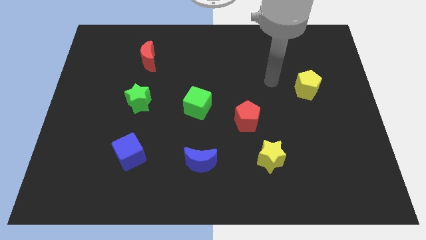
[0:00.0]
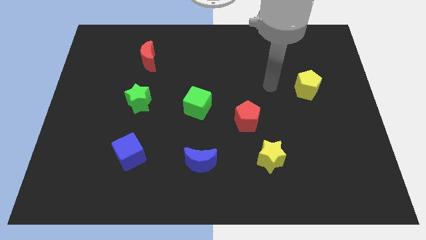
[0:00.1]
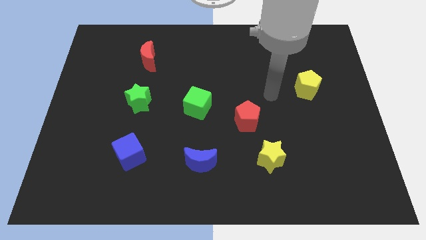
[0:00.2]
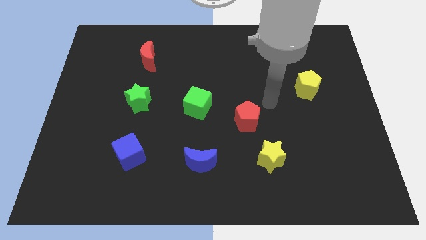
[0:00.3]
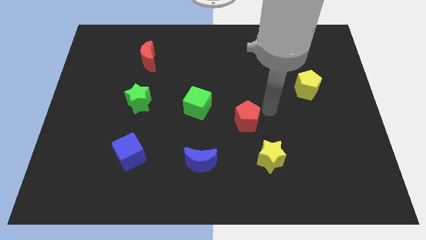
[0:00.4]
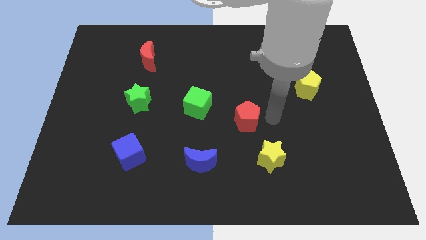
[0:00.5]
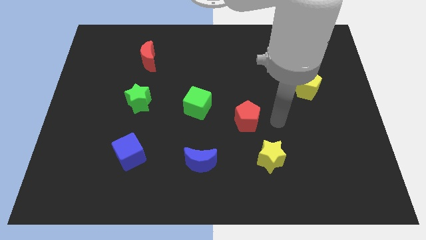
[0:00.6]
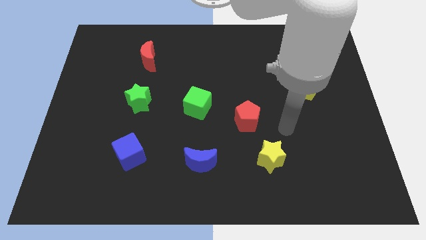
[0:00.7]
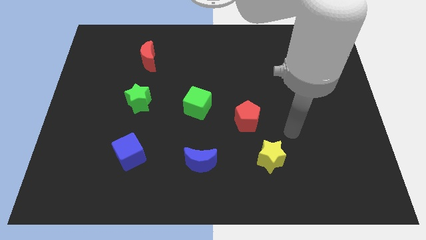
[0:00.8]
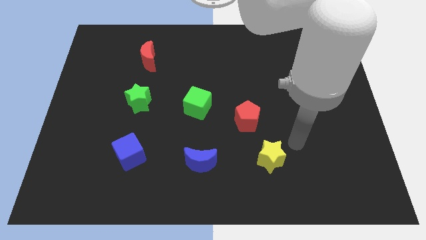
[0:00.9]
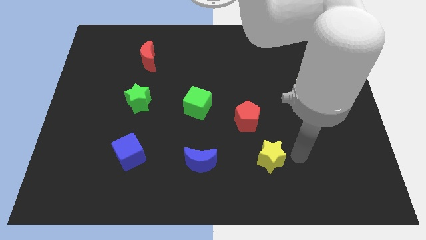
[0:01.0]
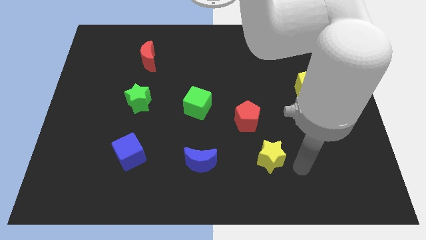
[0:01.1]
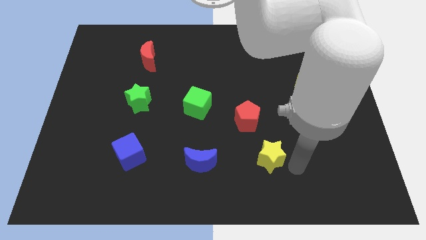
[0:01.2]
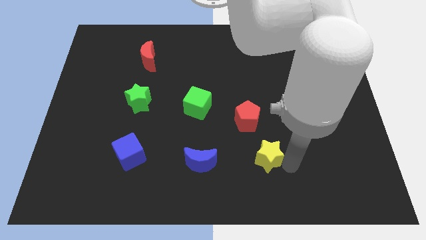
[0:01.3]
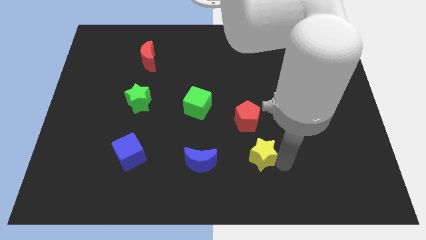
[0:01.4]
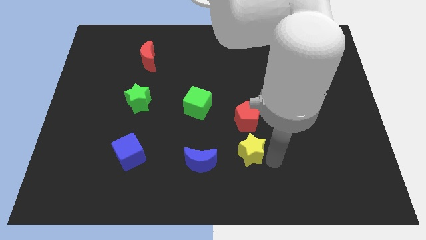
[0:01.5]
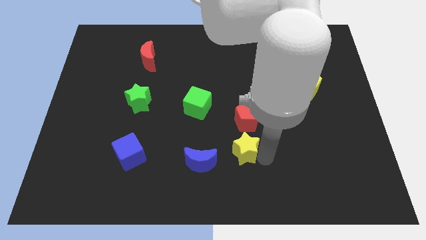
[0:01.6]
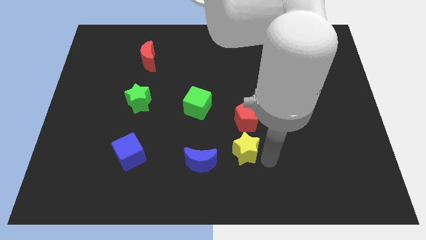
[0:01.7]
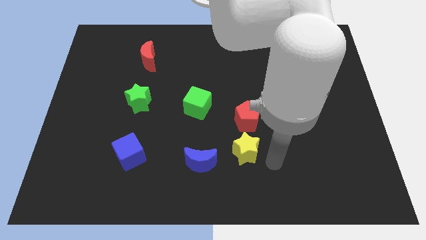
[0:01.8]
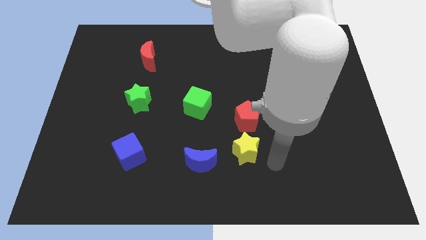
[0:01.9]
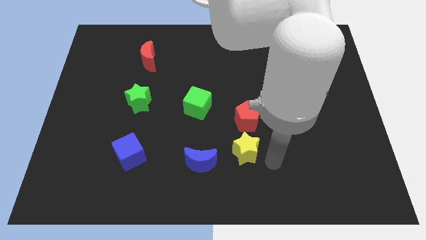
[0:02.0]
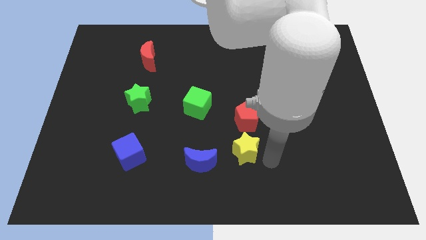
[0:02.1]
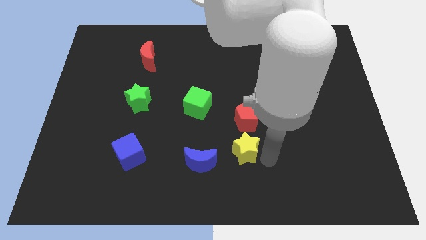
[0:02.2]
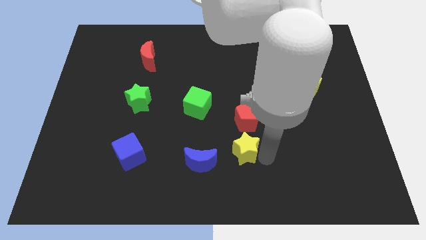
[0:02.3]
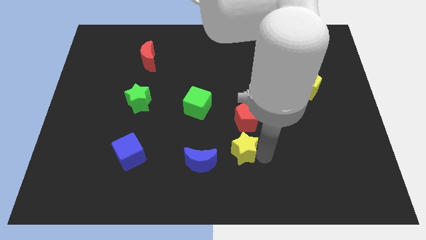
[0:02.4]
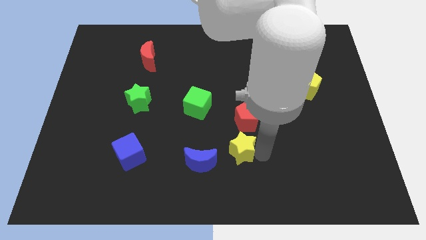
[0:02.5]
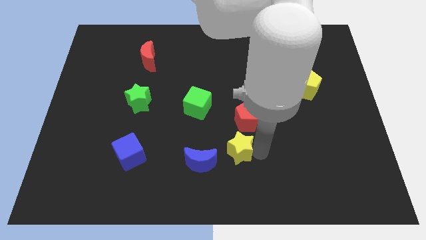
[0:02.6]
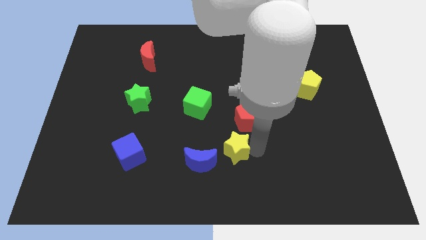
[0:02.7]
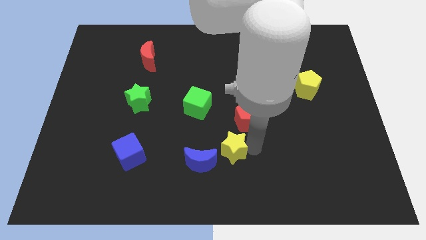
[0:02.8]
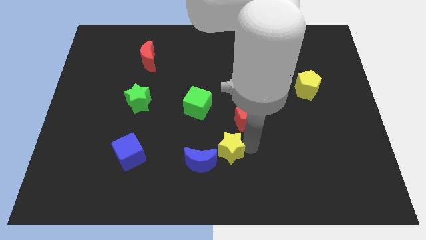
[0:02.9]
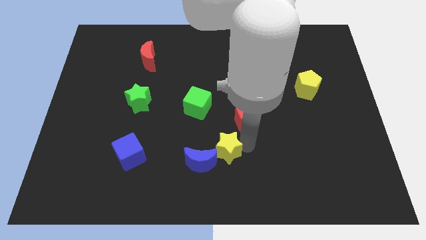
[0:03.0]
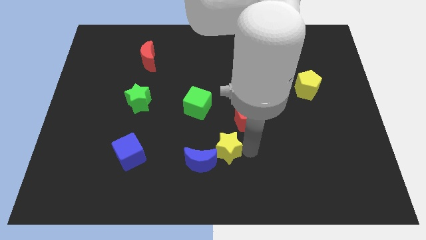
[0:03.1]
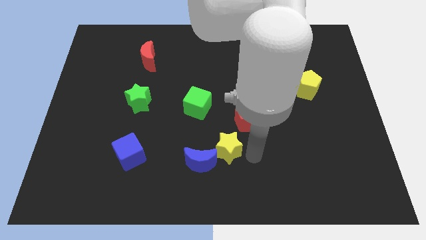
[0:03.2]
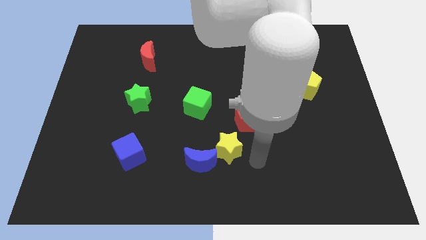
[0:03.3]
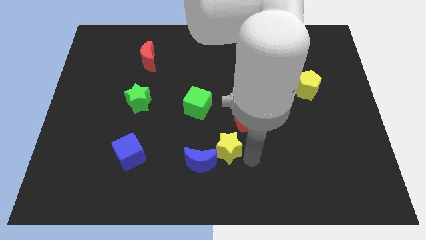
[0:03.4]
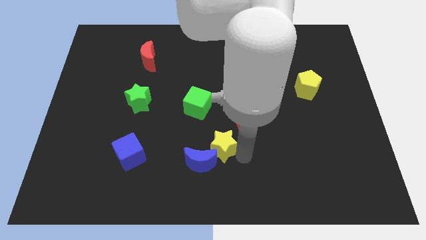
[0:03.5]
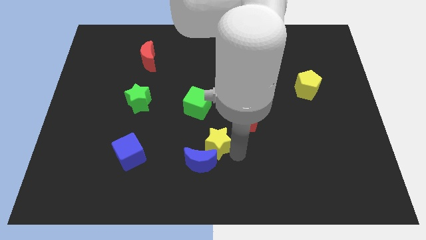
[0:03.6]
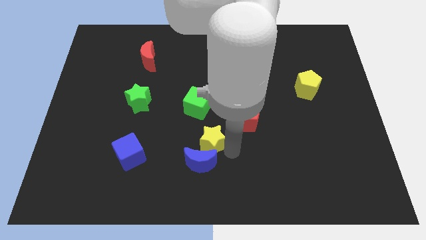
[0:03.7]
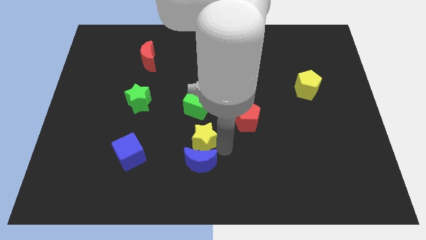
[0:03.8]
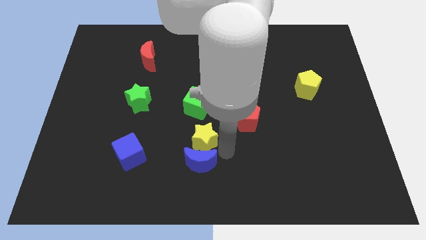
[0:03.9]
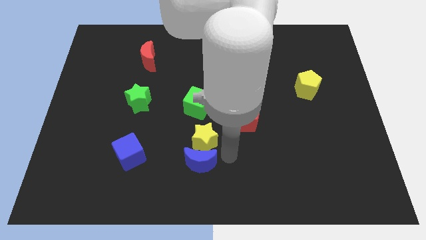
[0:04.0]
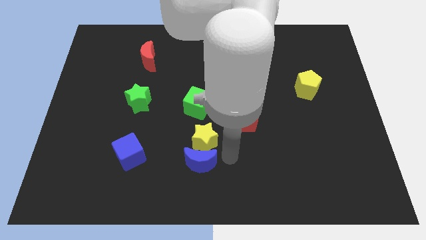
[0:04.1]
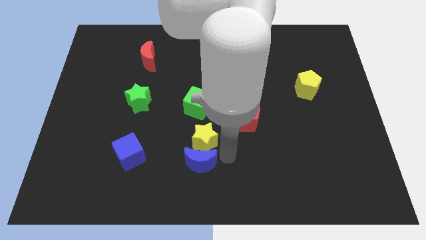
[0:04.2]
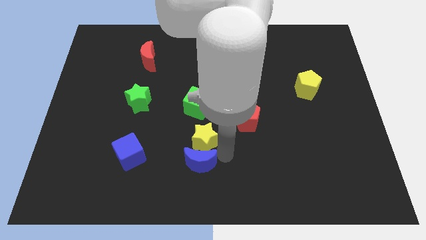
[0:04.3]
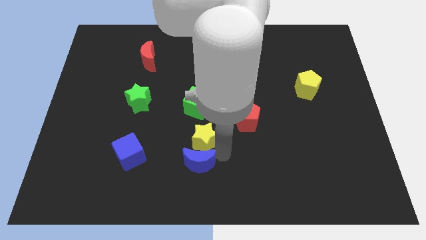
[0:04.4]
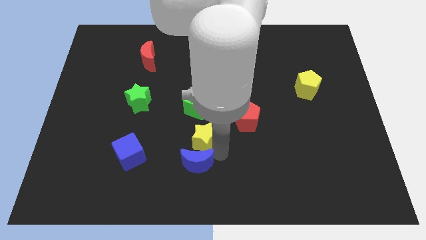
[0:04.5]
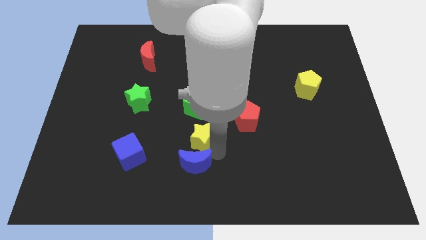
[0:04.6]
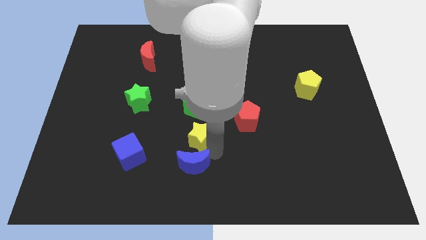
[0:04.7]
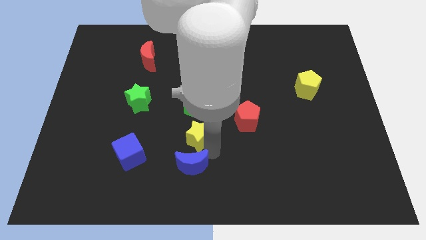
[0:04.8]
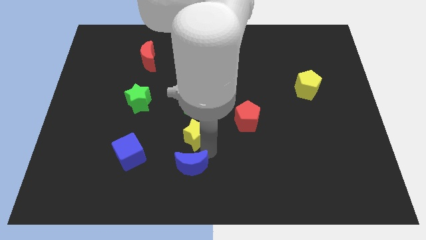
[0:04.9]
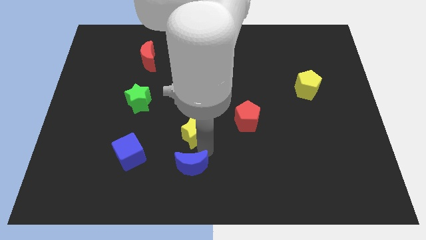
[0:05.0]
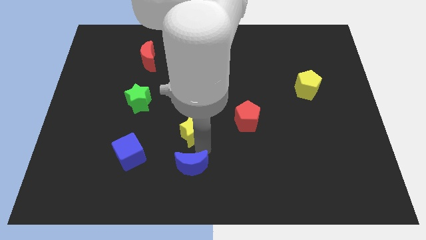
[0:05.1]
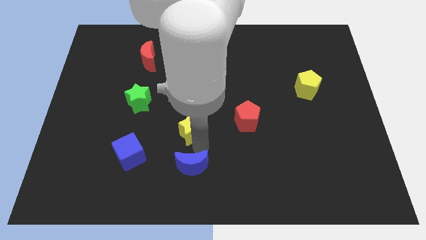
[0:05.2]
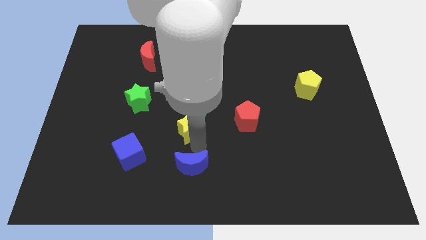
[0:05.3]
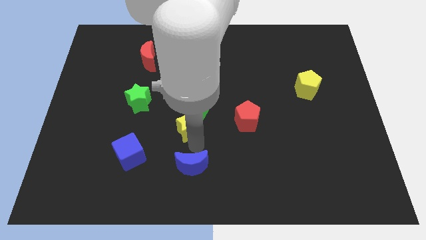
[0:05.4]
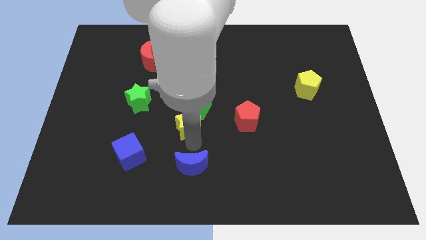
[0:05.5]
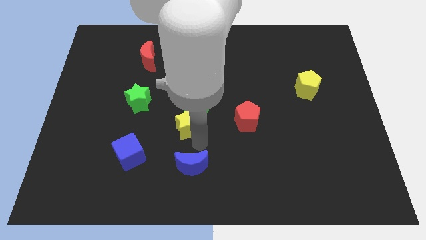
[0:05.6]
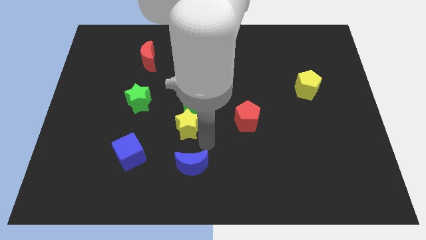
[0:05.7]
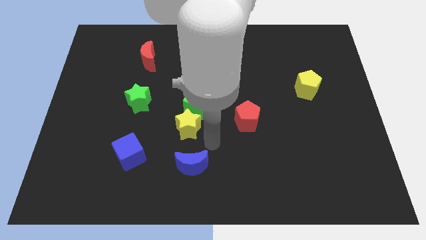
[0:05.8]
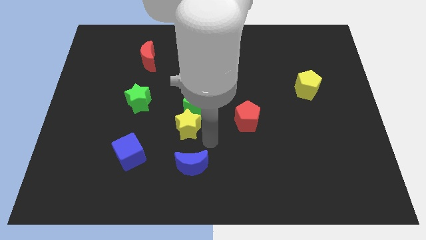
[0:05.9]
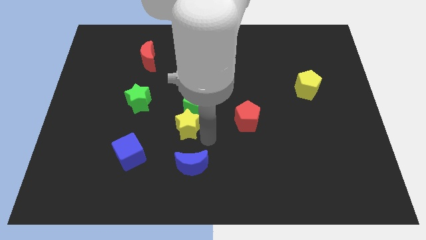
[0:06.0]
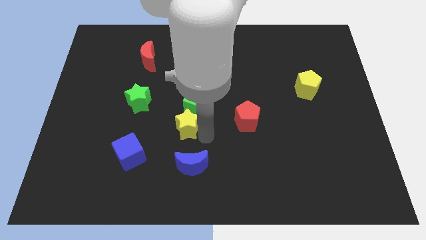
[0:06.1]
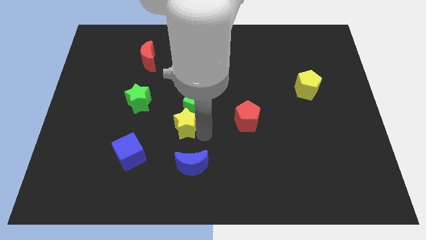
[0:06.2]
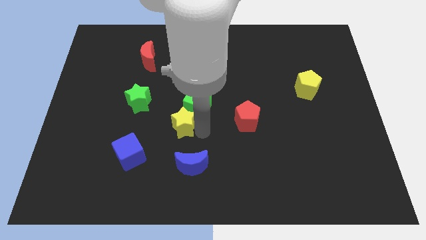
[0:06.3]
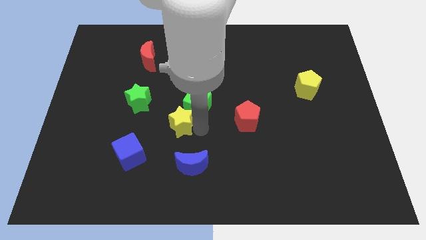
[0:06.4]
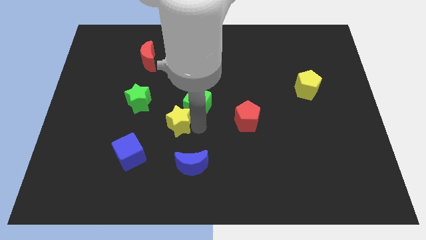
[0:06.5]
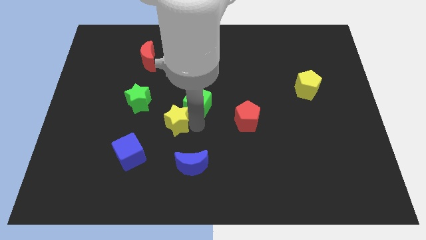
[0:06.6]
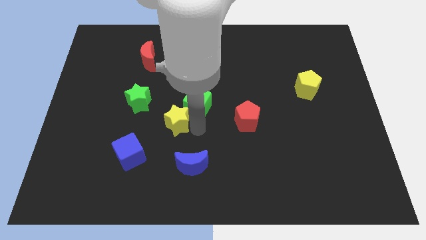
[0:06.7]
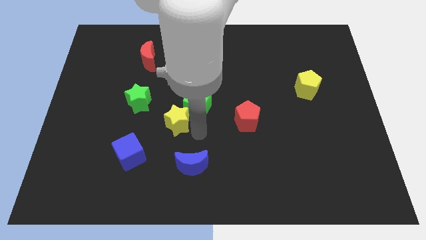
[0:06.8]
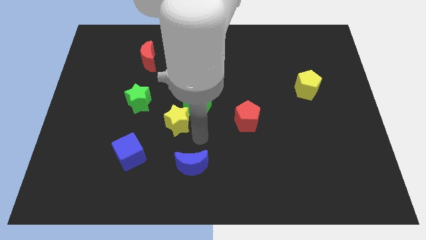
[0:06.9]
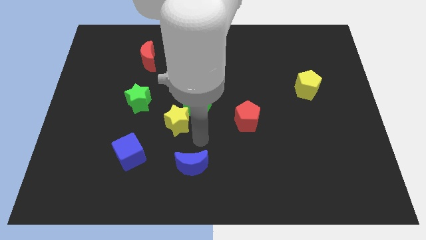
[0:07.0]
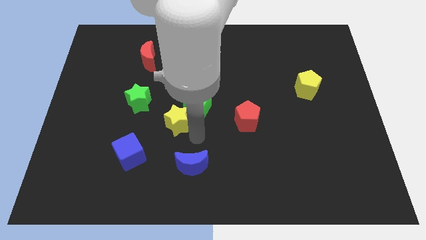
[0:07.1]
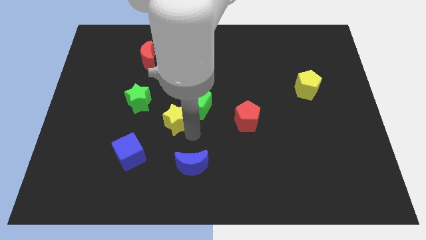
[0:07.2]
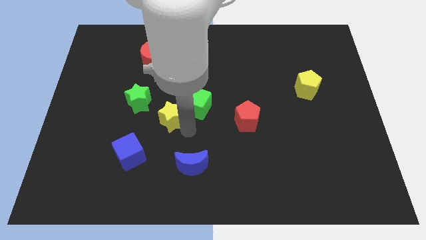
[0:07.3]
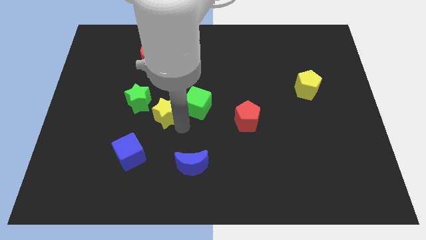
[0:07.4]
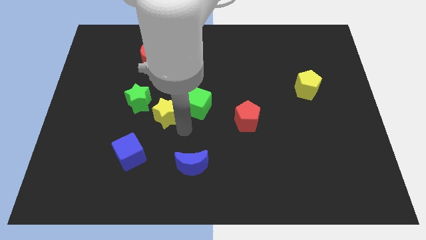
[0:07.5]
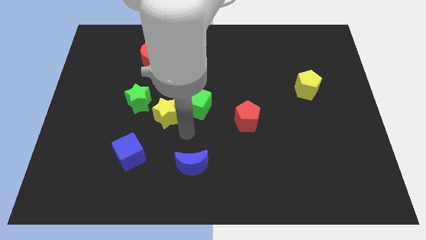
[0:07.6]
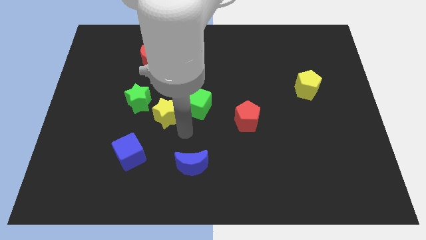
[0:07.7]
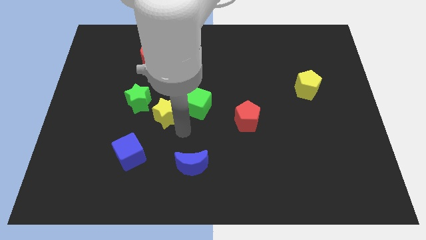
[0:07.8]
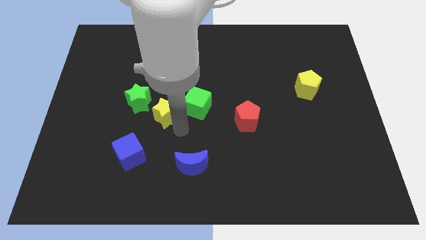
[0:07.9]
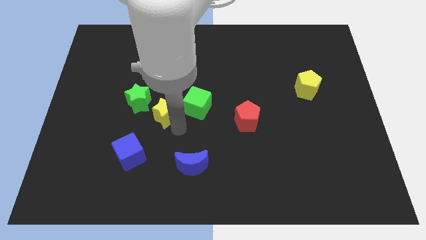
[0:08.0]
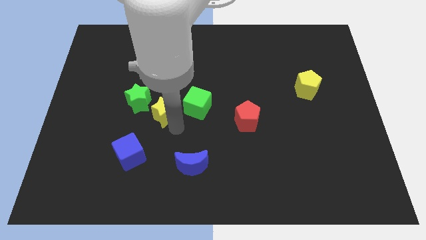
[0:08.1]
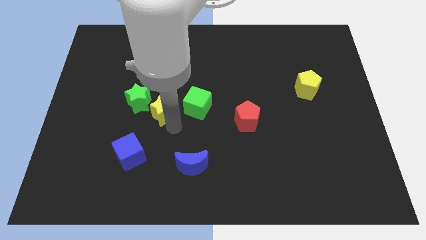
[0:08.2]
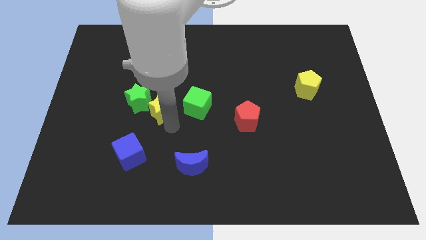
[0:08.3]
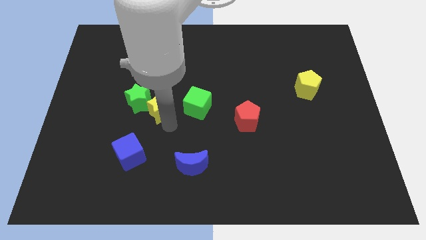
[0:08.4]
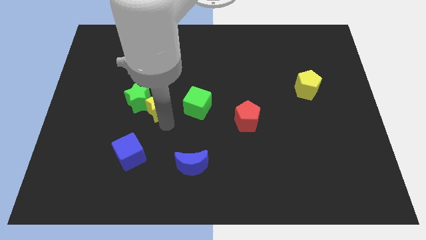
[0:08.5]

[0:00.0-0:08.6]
move the yellow star close to the green star
